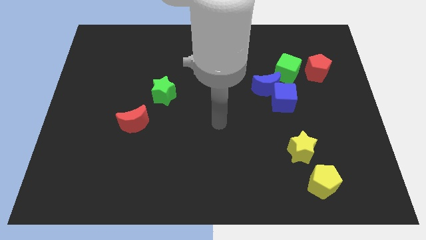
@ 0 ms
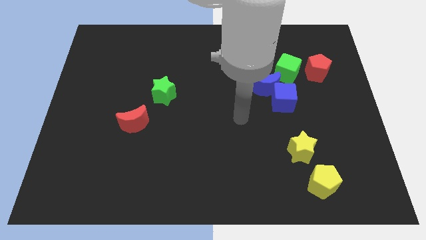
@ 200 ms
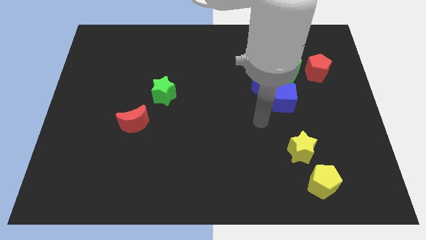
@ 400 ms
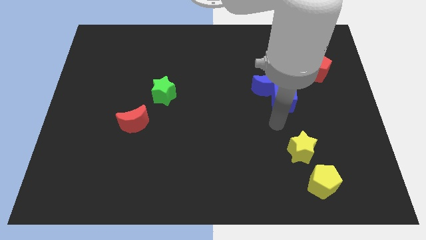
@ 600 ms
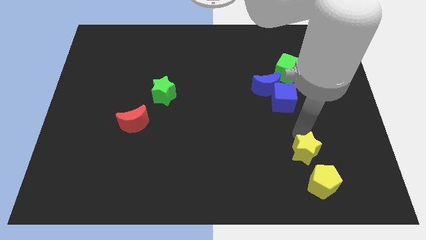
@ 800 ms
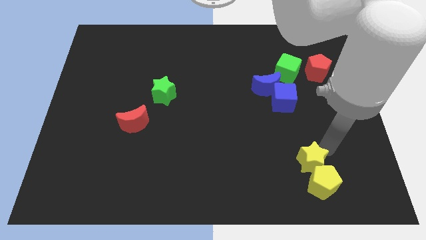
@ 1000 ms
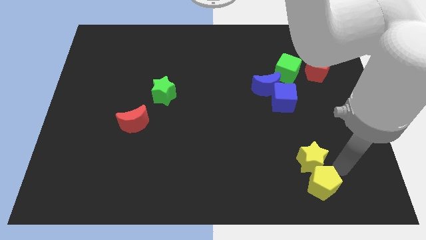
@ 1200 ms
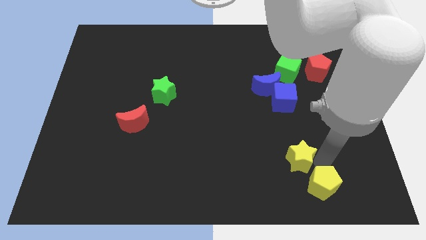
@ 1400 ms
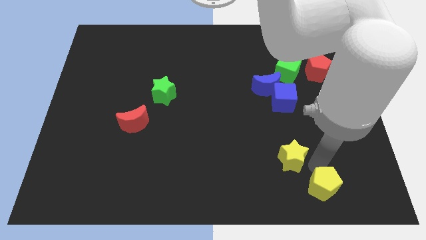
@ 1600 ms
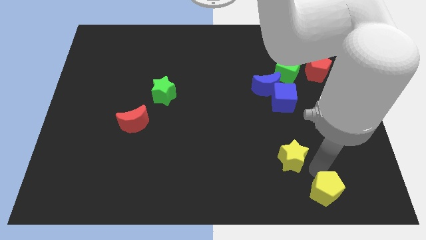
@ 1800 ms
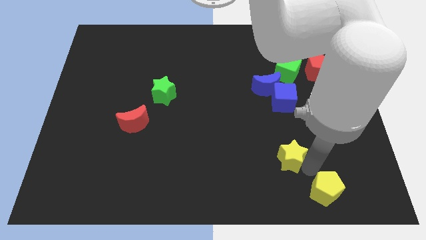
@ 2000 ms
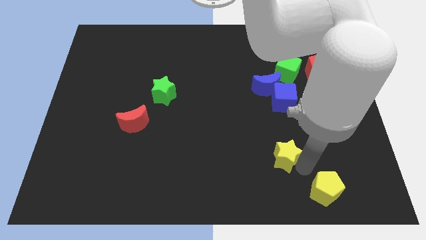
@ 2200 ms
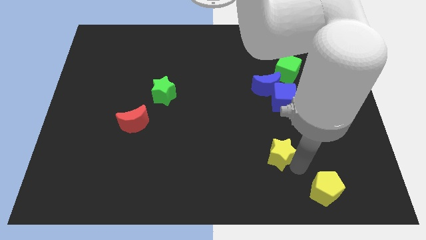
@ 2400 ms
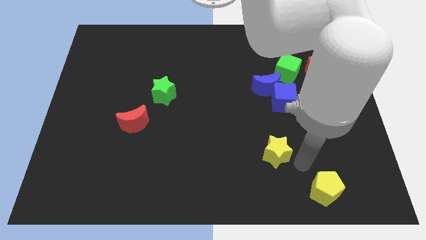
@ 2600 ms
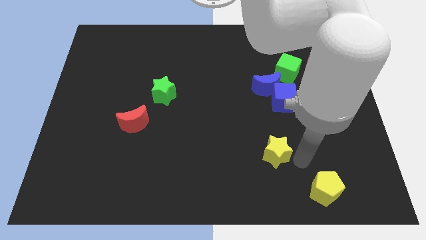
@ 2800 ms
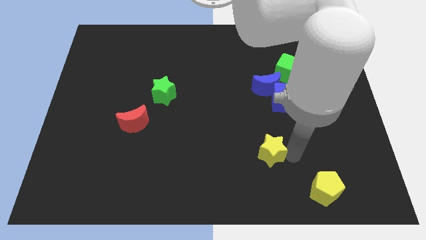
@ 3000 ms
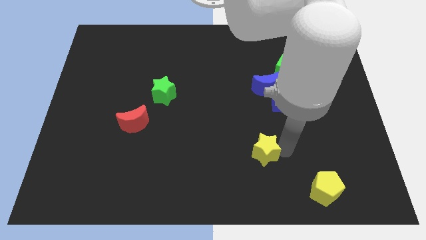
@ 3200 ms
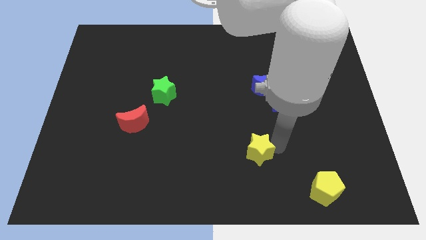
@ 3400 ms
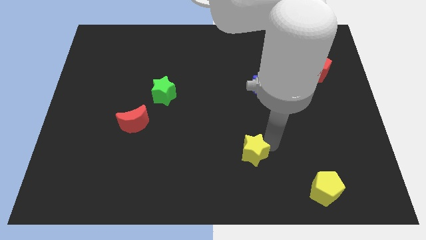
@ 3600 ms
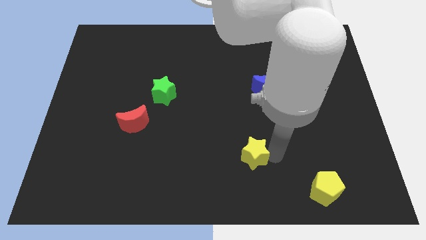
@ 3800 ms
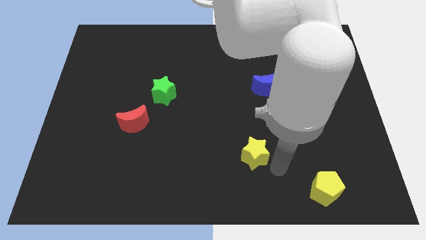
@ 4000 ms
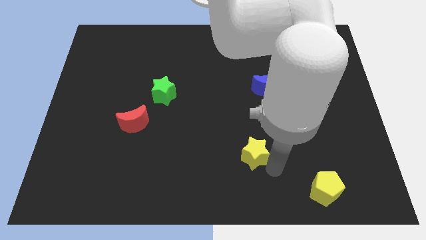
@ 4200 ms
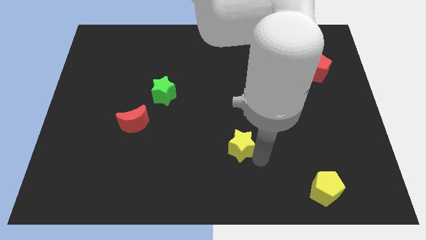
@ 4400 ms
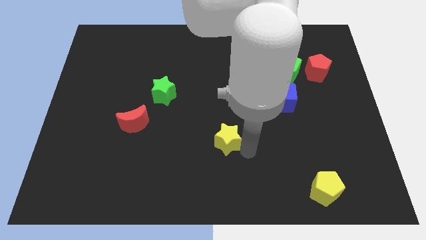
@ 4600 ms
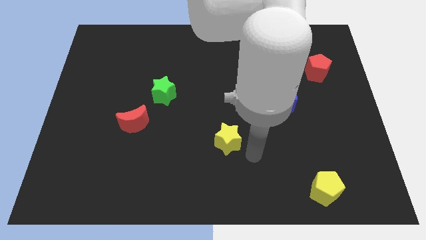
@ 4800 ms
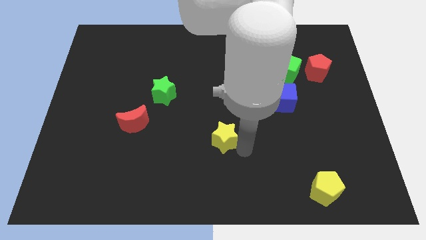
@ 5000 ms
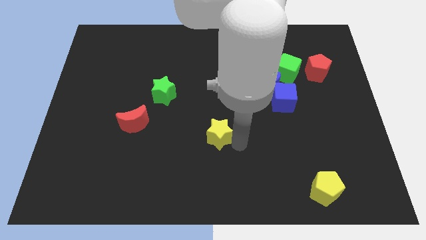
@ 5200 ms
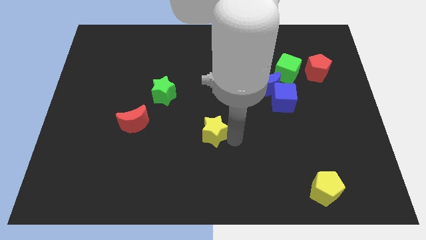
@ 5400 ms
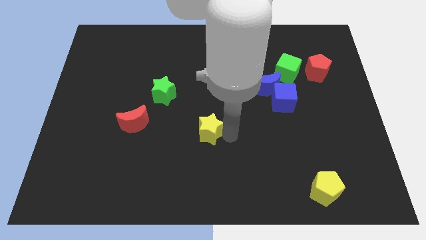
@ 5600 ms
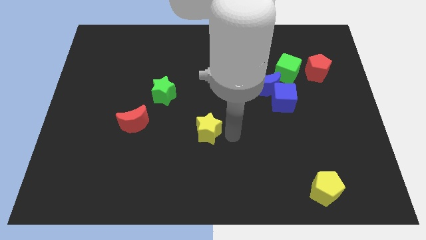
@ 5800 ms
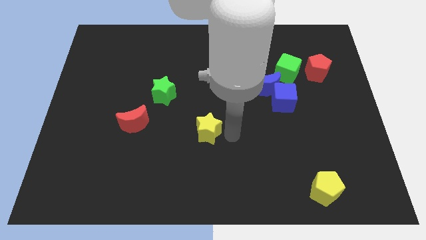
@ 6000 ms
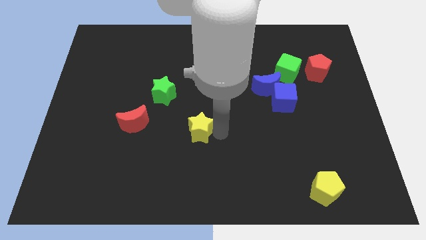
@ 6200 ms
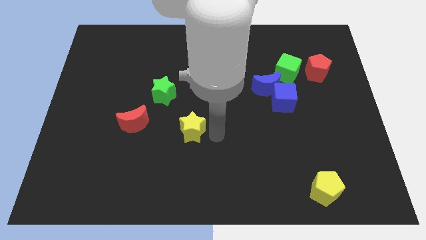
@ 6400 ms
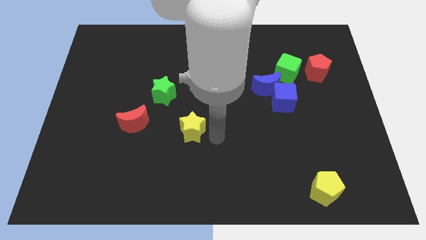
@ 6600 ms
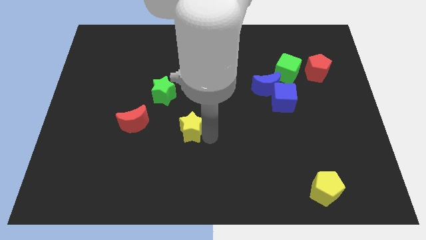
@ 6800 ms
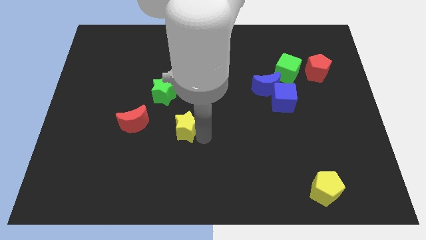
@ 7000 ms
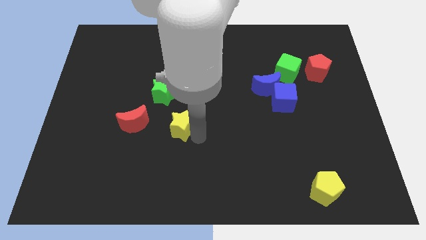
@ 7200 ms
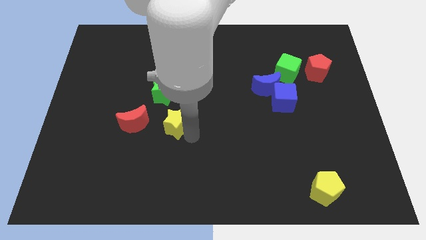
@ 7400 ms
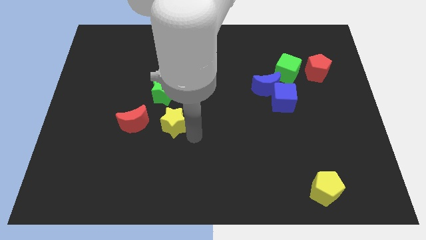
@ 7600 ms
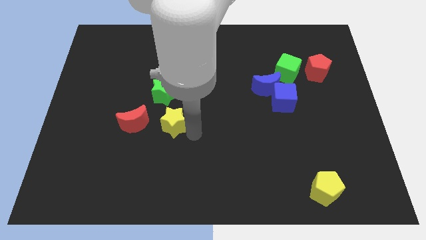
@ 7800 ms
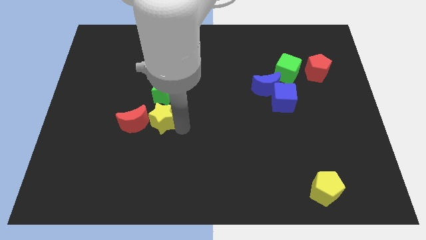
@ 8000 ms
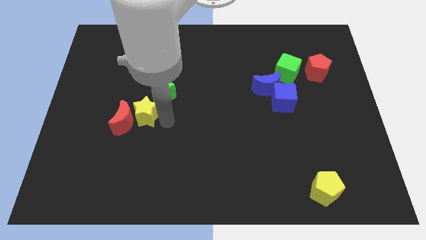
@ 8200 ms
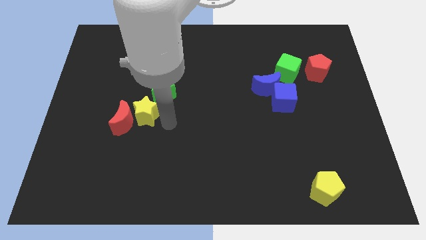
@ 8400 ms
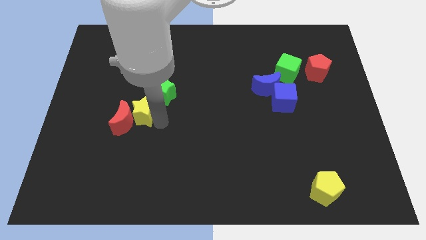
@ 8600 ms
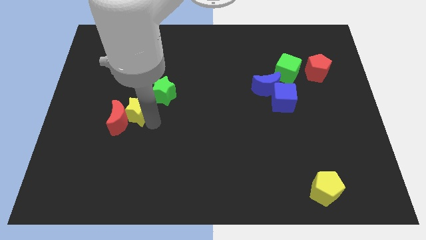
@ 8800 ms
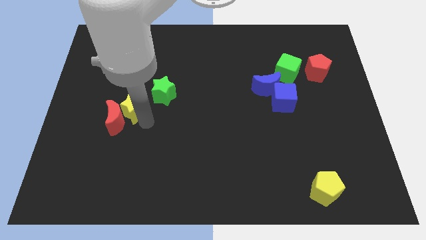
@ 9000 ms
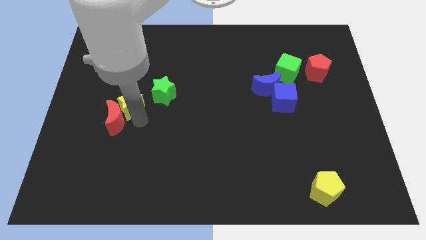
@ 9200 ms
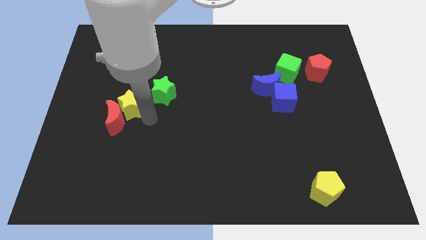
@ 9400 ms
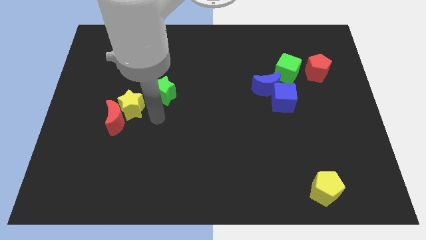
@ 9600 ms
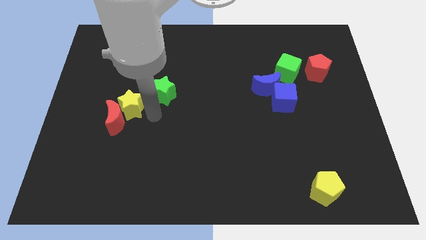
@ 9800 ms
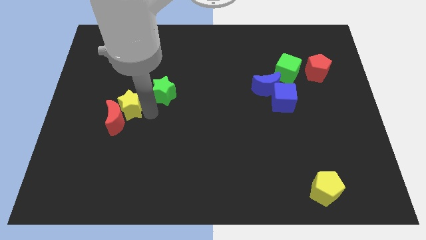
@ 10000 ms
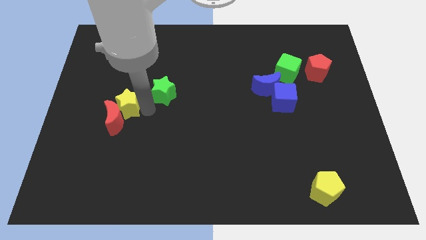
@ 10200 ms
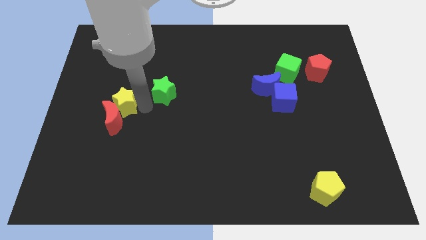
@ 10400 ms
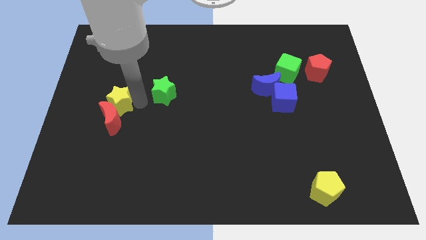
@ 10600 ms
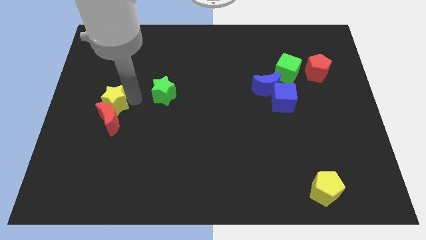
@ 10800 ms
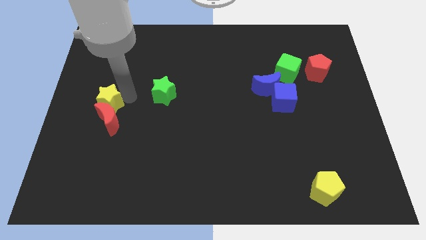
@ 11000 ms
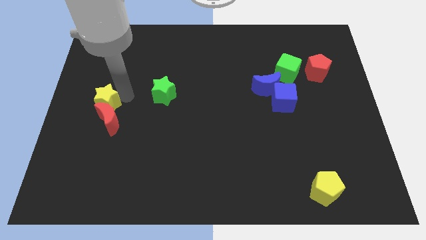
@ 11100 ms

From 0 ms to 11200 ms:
move the yellow star to the left side of the board
